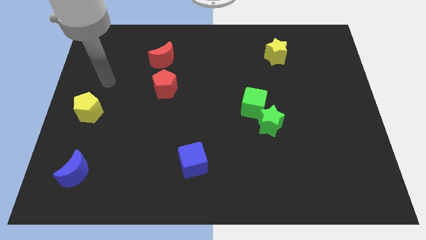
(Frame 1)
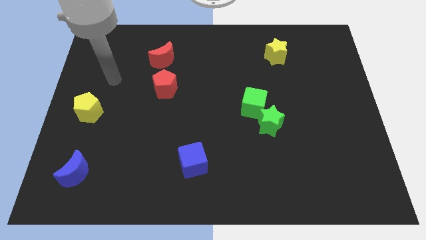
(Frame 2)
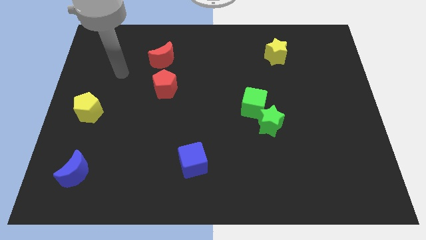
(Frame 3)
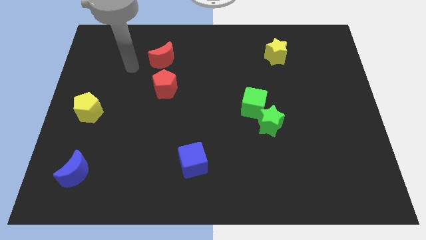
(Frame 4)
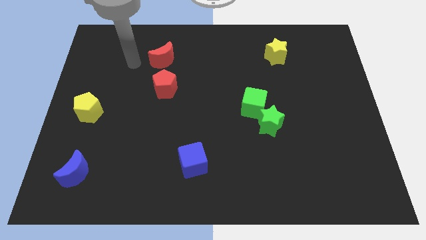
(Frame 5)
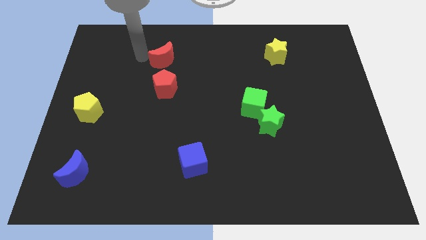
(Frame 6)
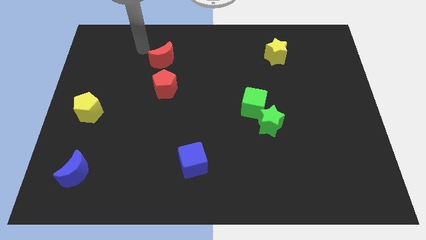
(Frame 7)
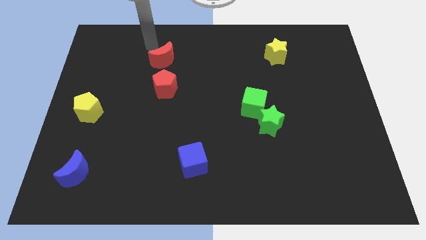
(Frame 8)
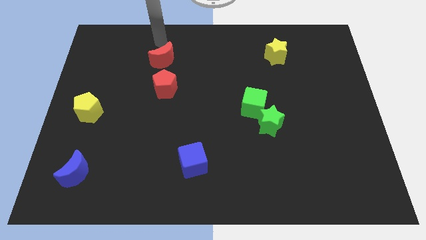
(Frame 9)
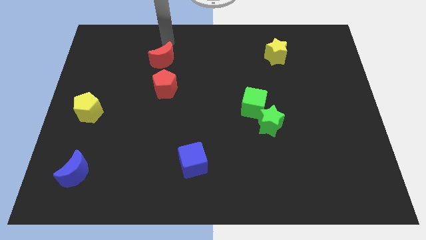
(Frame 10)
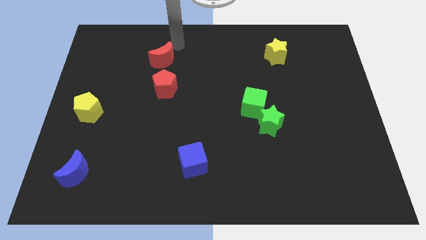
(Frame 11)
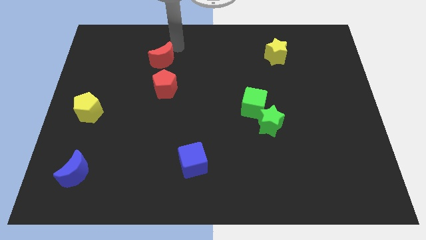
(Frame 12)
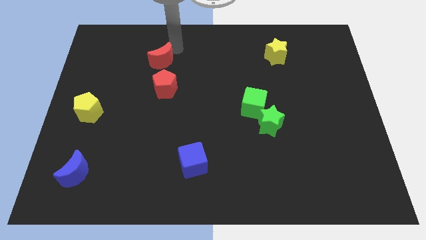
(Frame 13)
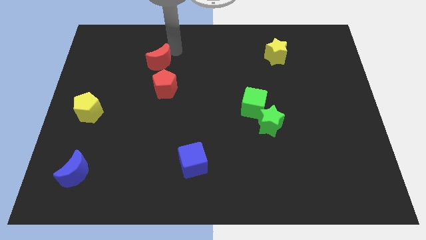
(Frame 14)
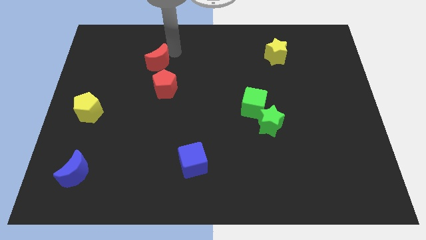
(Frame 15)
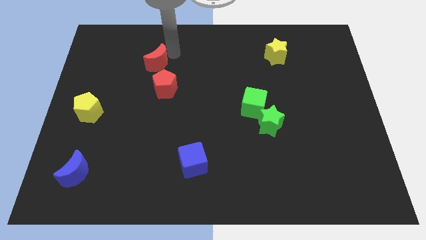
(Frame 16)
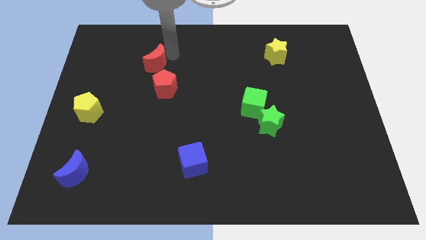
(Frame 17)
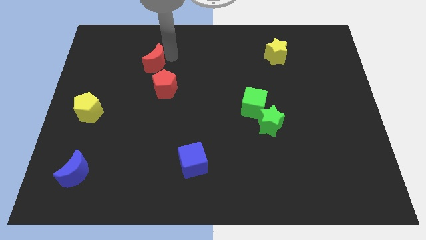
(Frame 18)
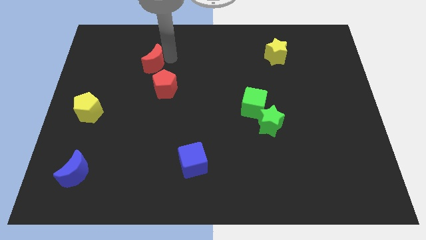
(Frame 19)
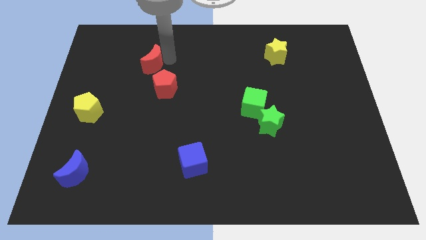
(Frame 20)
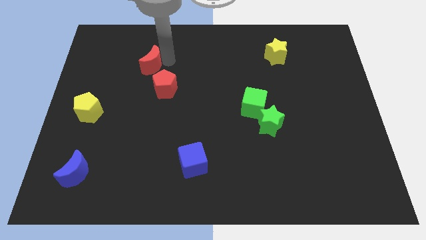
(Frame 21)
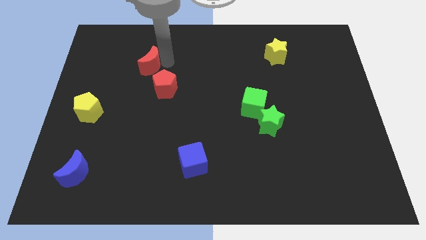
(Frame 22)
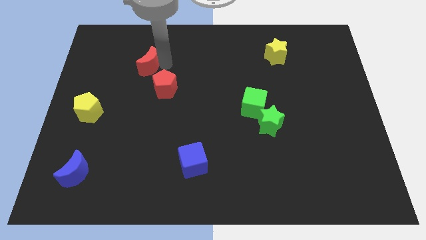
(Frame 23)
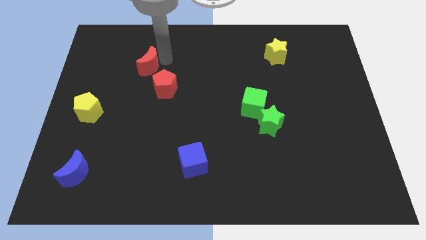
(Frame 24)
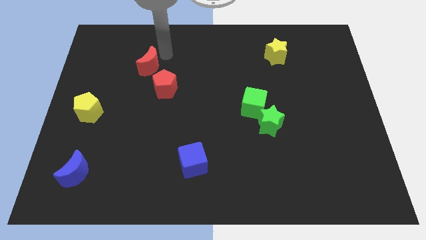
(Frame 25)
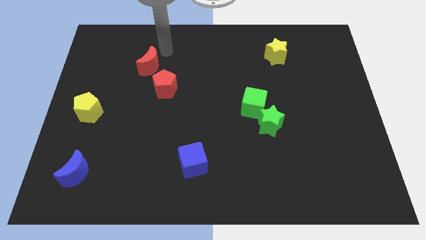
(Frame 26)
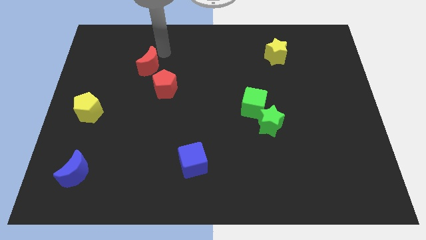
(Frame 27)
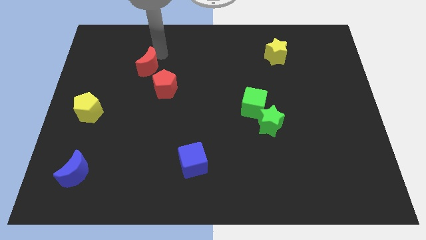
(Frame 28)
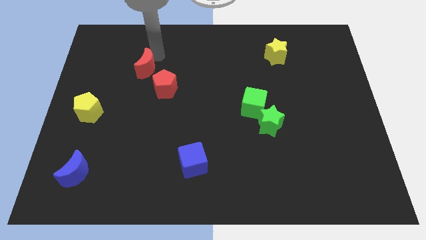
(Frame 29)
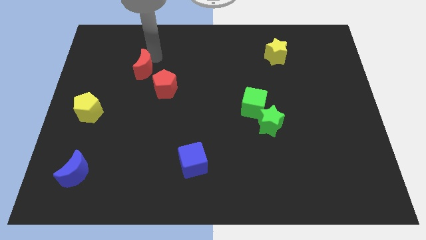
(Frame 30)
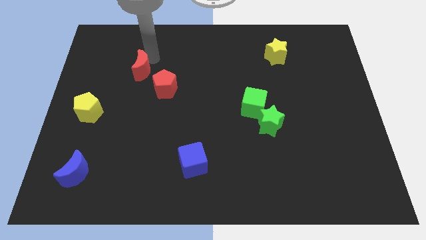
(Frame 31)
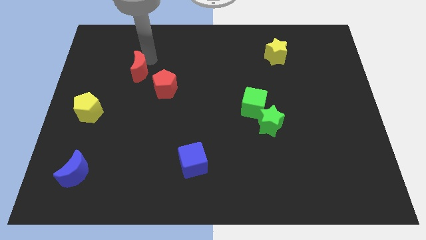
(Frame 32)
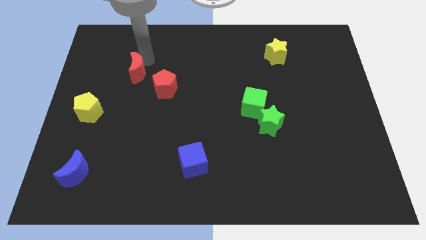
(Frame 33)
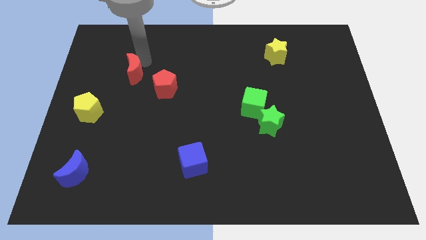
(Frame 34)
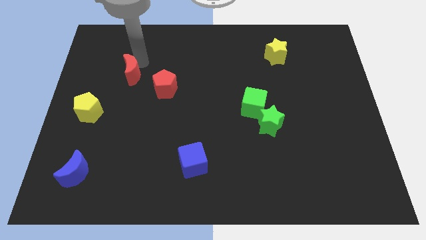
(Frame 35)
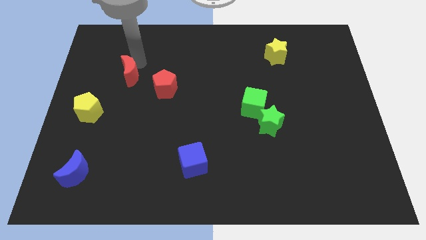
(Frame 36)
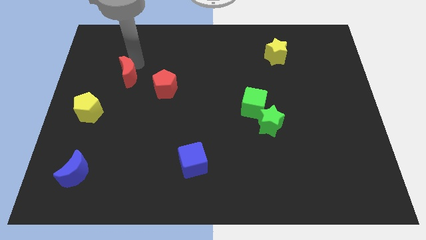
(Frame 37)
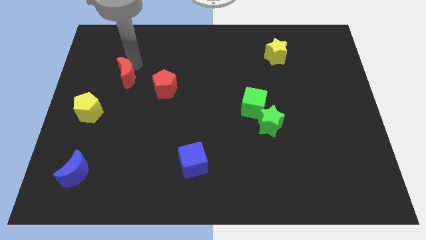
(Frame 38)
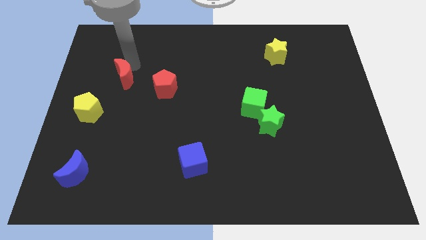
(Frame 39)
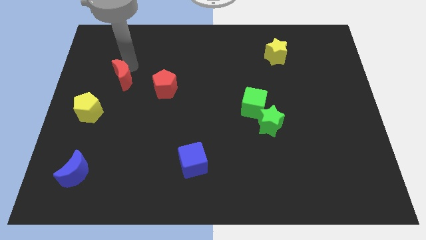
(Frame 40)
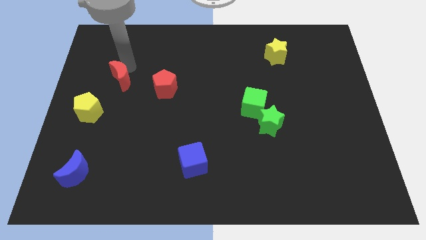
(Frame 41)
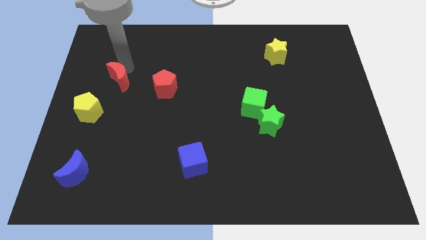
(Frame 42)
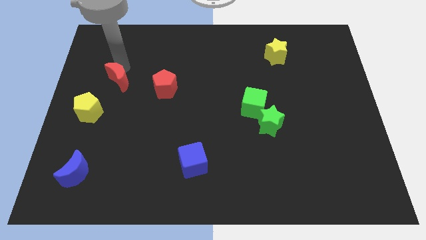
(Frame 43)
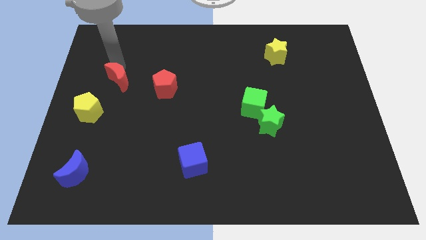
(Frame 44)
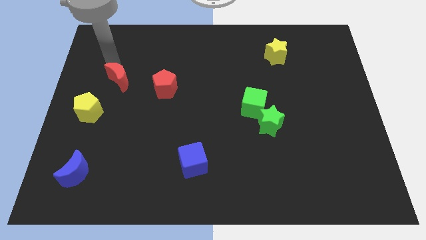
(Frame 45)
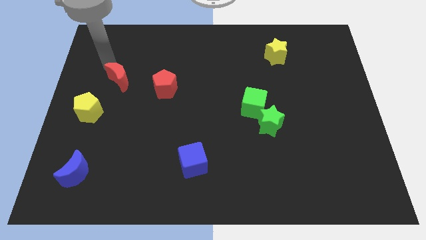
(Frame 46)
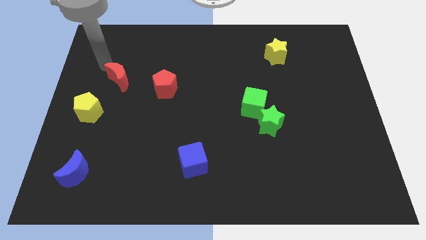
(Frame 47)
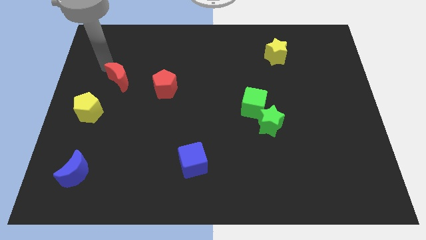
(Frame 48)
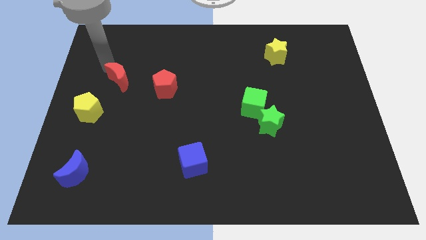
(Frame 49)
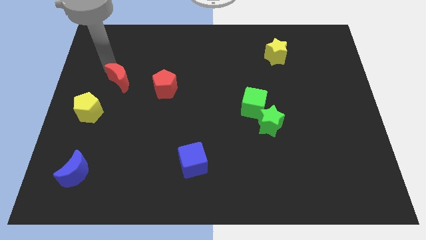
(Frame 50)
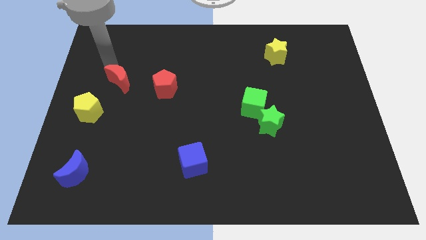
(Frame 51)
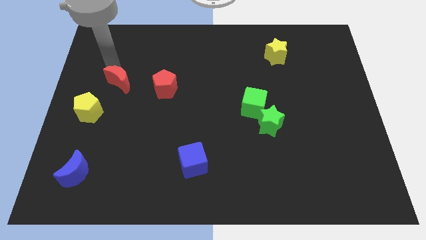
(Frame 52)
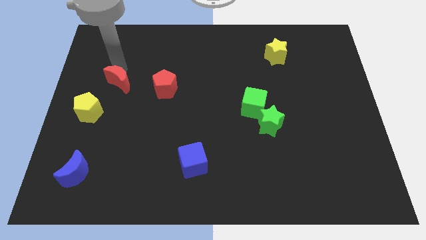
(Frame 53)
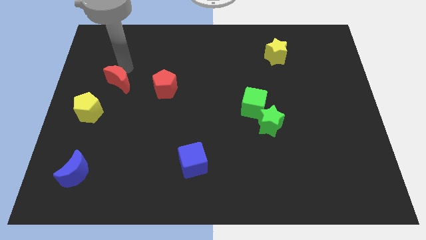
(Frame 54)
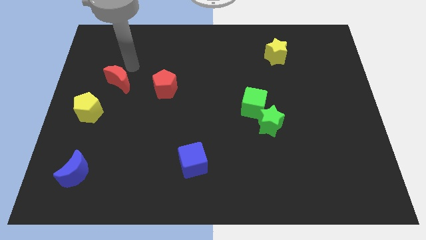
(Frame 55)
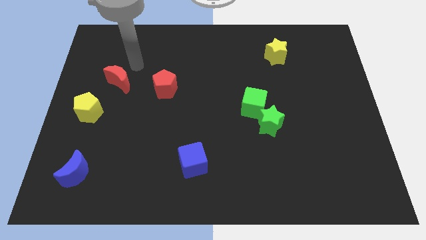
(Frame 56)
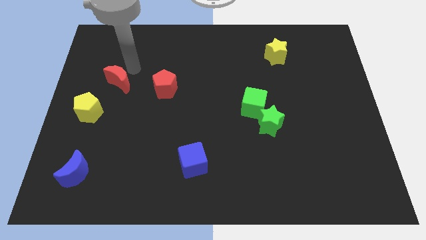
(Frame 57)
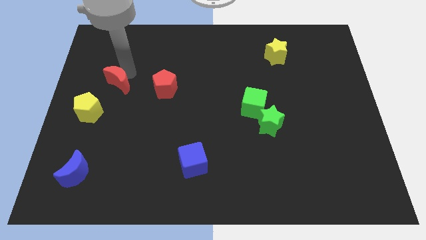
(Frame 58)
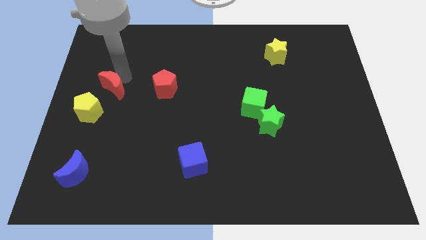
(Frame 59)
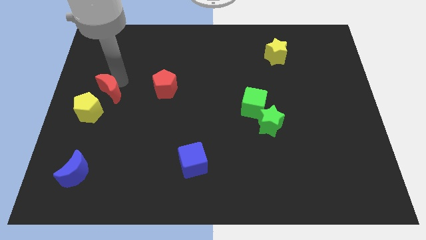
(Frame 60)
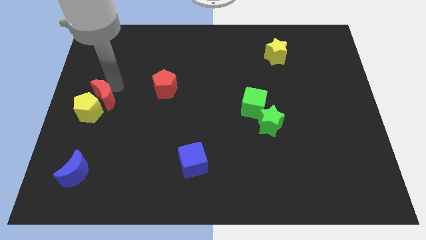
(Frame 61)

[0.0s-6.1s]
move the red moon next to the yellow pentagon

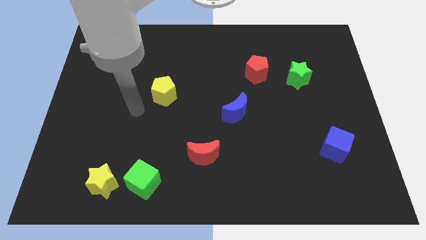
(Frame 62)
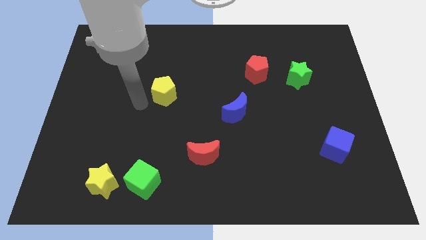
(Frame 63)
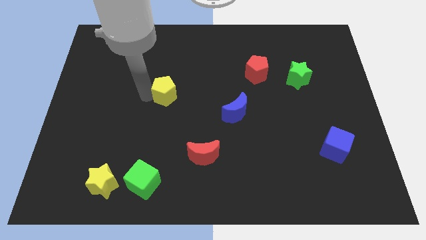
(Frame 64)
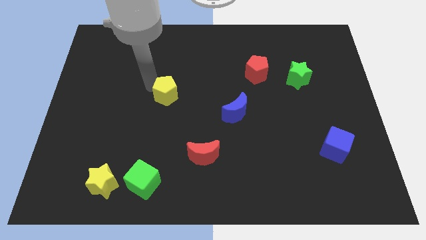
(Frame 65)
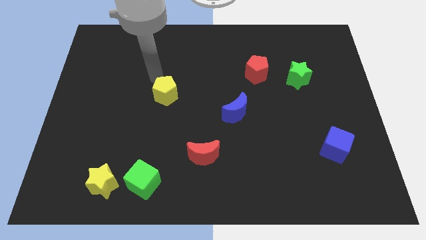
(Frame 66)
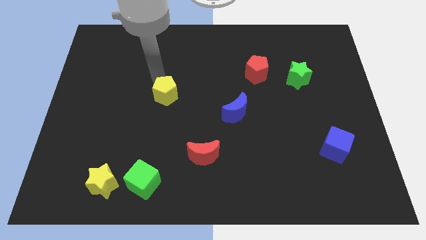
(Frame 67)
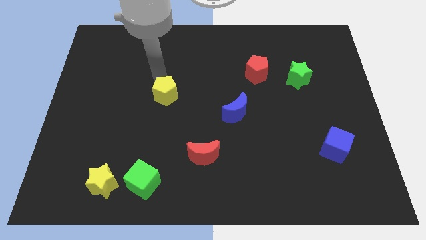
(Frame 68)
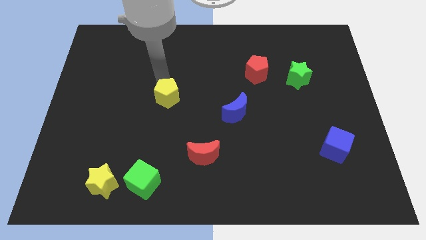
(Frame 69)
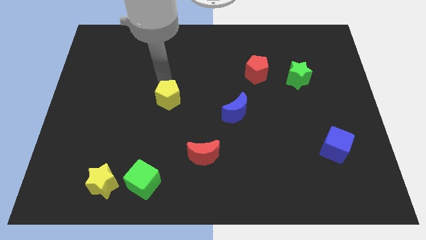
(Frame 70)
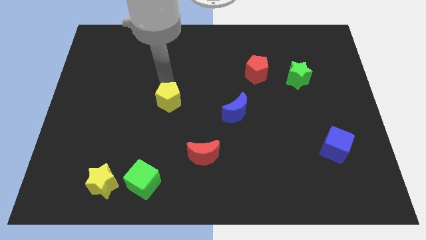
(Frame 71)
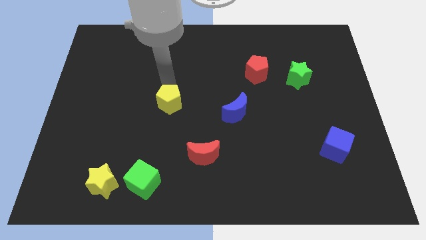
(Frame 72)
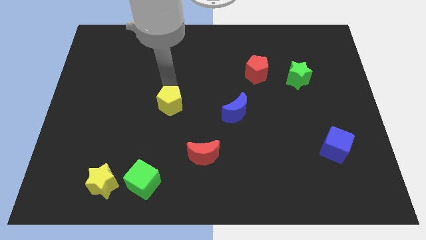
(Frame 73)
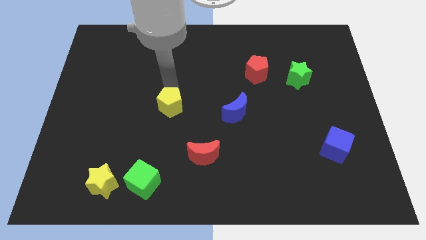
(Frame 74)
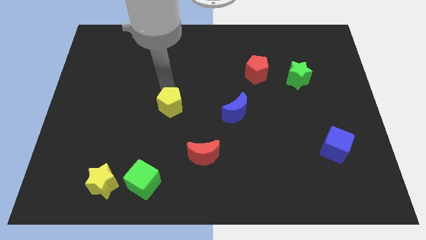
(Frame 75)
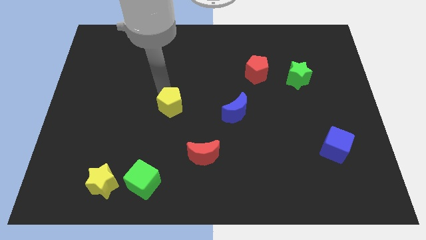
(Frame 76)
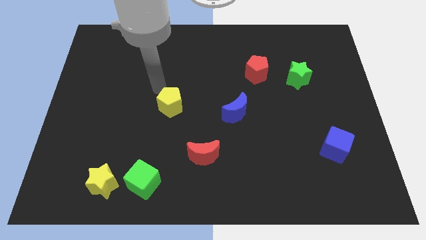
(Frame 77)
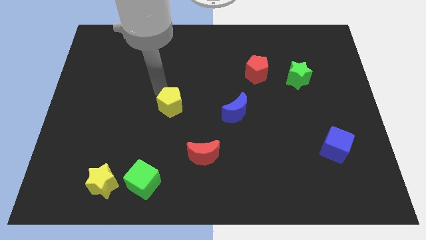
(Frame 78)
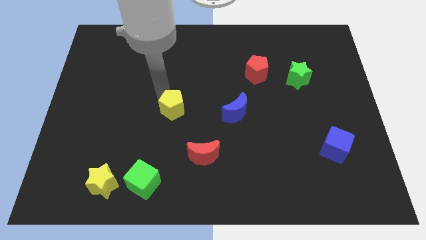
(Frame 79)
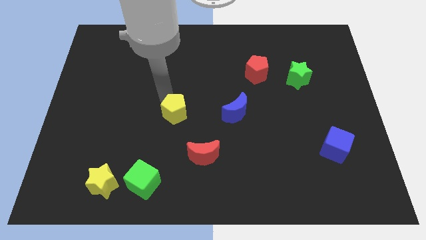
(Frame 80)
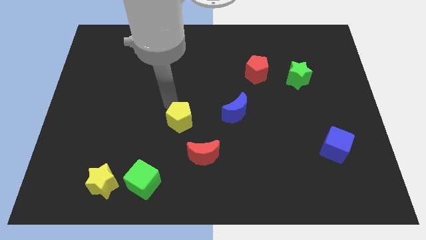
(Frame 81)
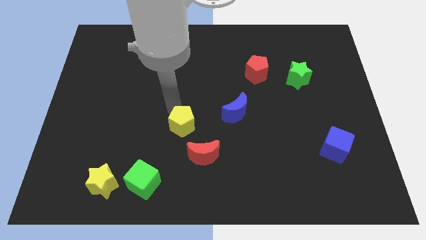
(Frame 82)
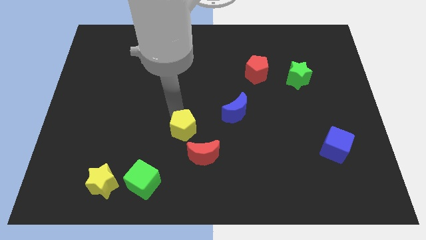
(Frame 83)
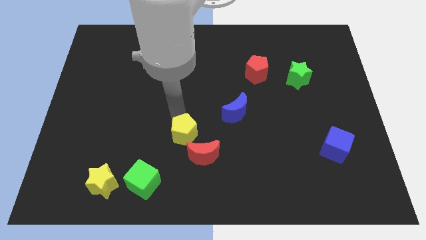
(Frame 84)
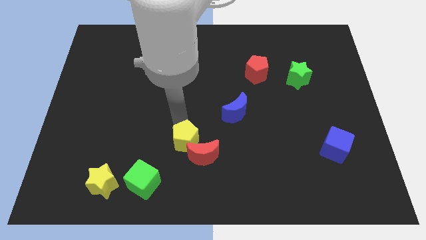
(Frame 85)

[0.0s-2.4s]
put the yellow pentagon next to the red moon

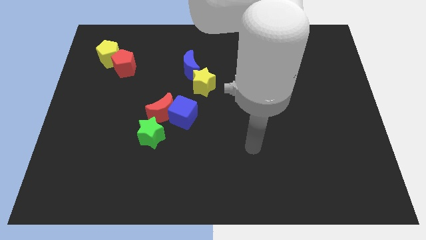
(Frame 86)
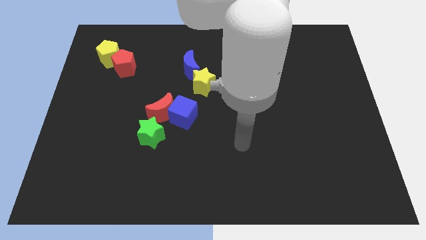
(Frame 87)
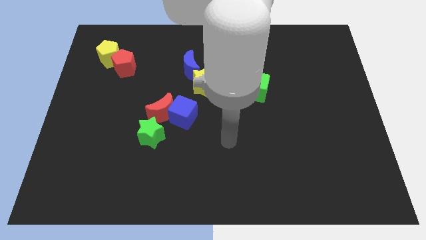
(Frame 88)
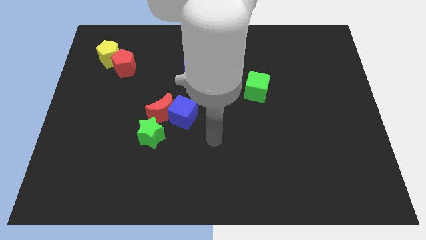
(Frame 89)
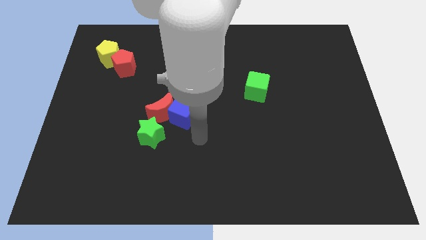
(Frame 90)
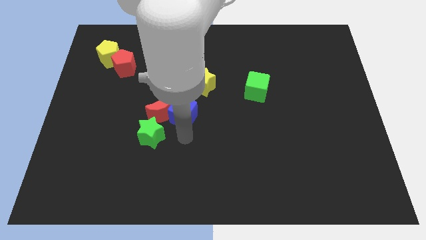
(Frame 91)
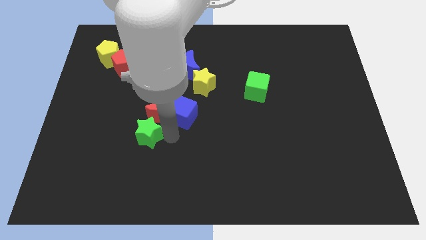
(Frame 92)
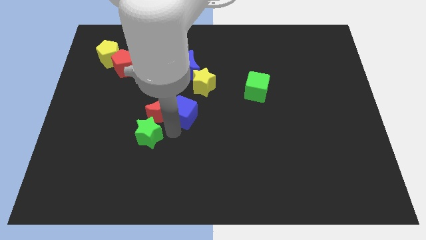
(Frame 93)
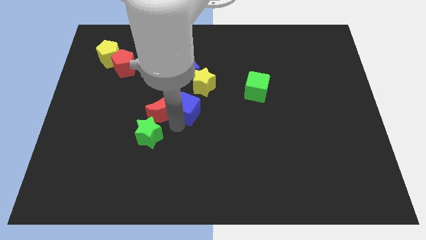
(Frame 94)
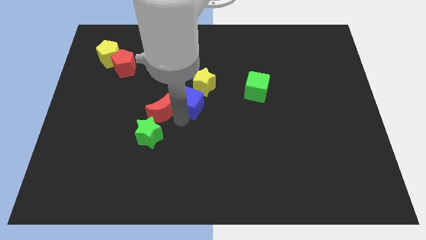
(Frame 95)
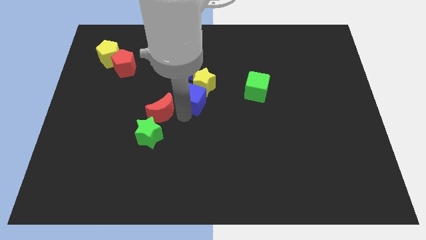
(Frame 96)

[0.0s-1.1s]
push the blue cube towards the yellow star
